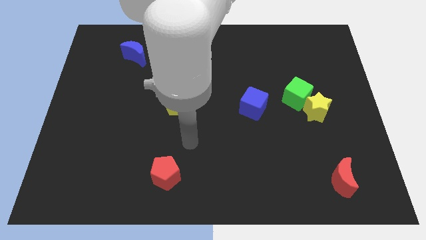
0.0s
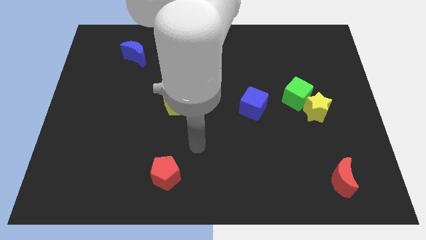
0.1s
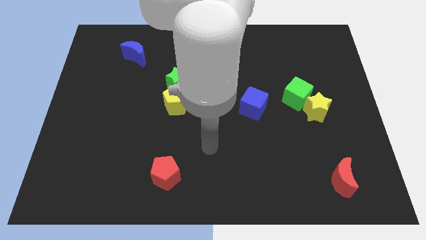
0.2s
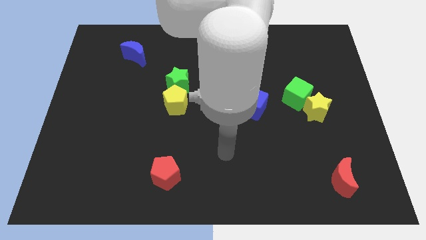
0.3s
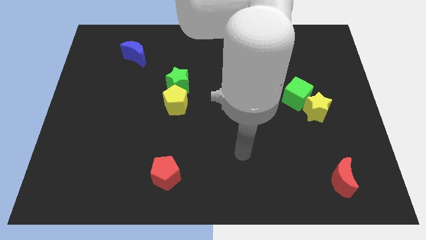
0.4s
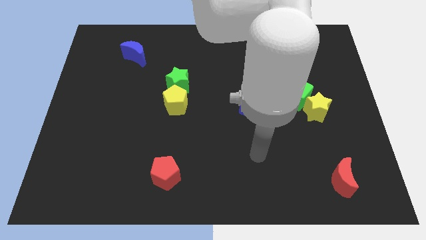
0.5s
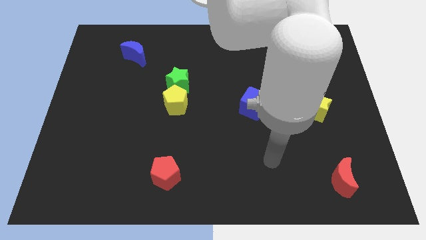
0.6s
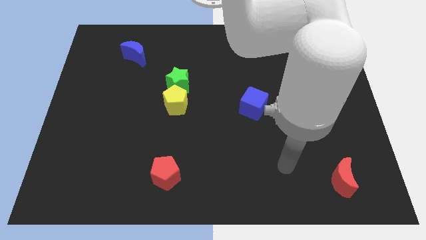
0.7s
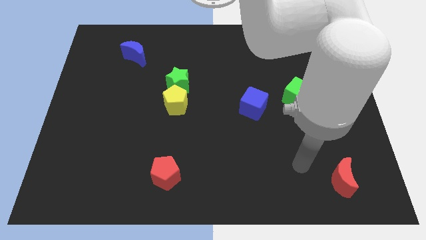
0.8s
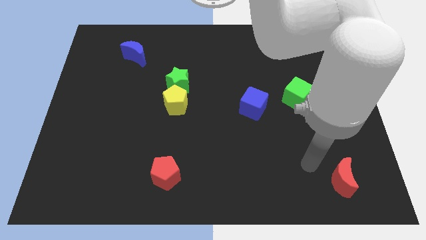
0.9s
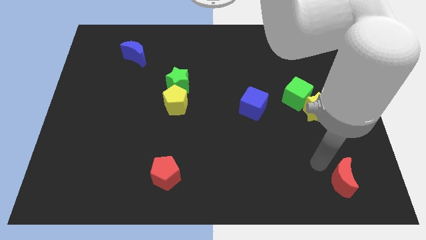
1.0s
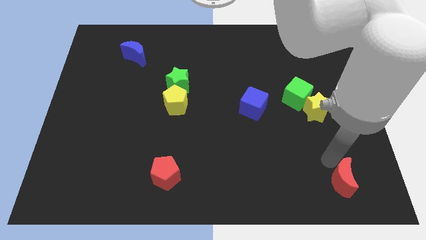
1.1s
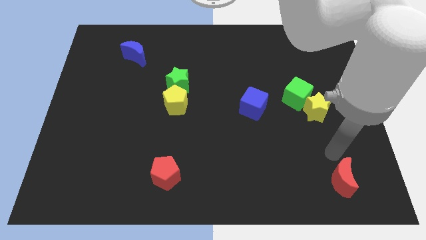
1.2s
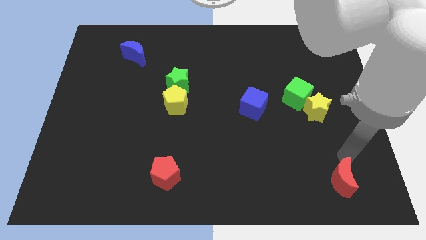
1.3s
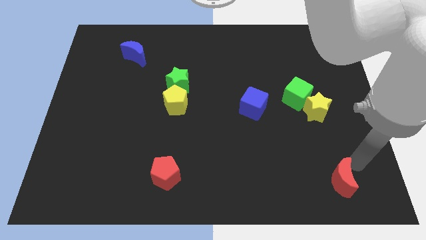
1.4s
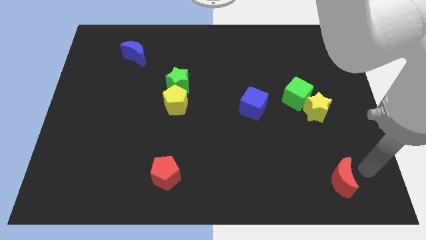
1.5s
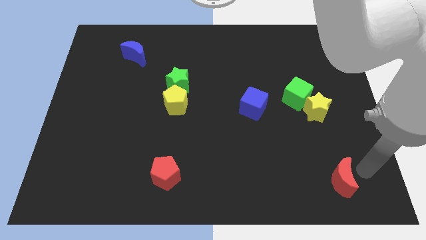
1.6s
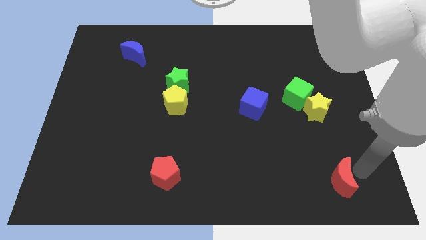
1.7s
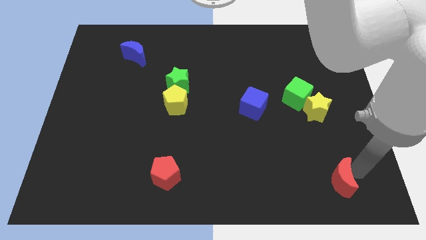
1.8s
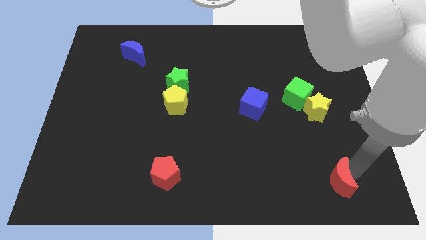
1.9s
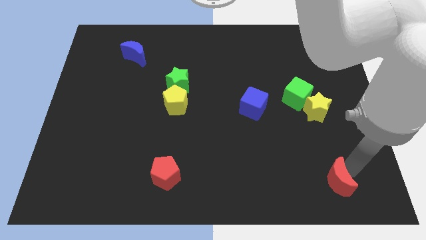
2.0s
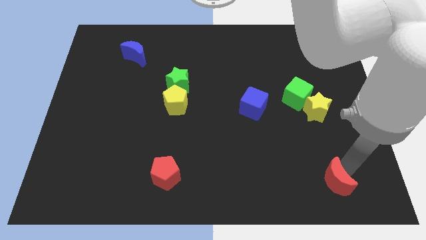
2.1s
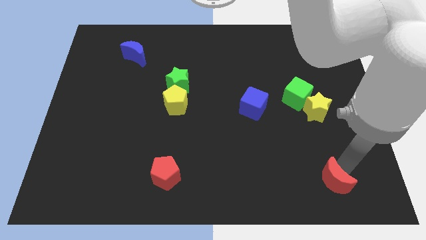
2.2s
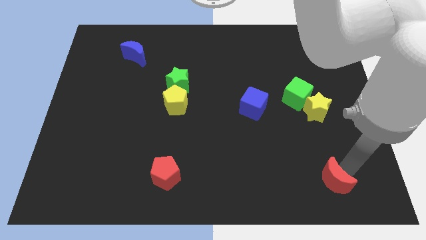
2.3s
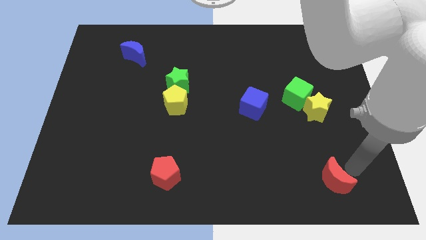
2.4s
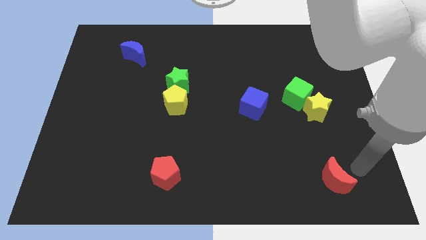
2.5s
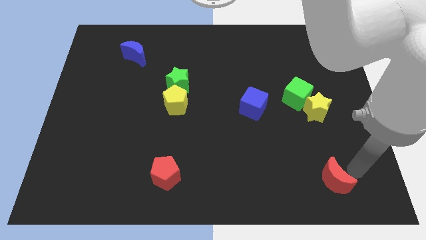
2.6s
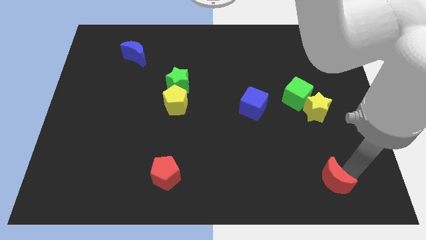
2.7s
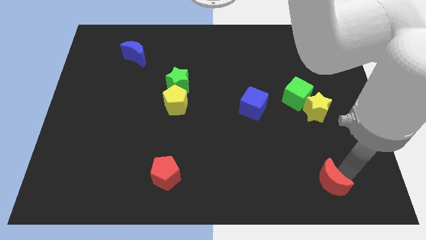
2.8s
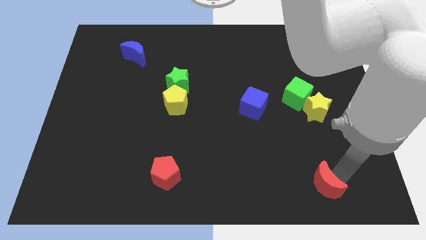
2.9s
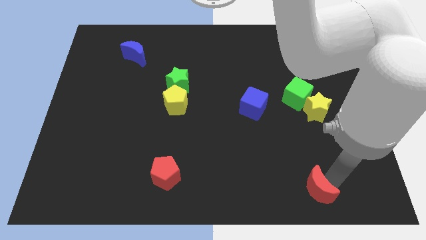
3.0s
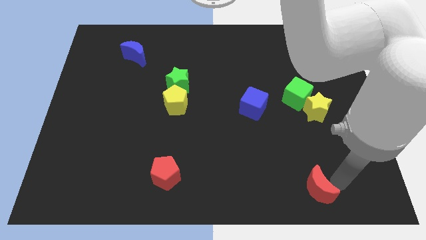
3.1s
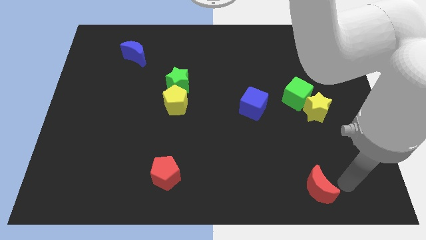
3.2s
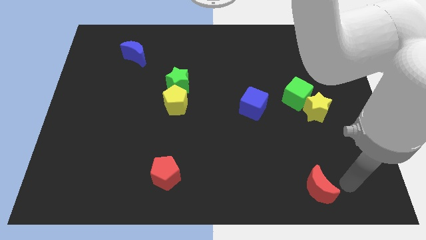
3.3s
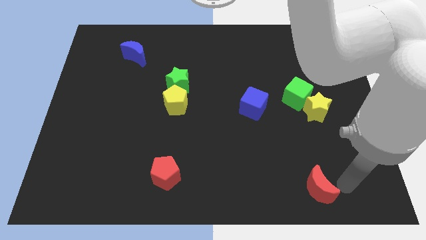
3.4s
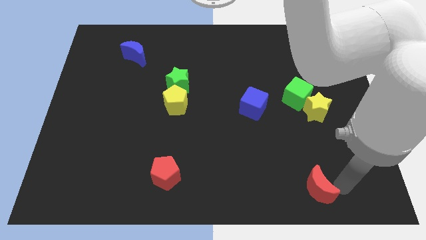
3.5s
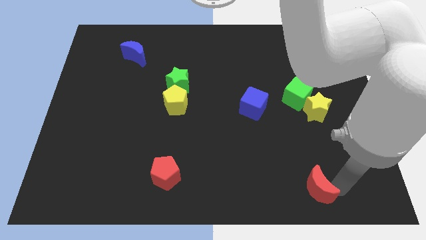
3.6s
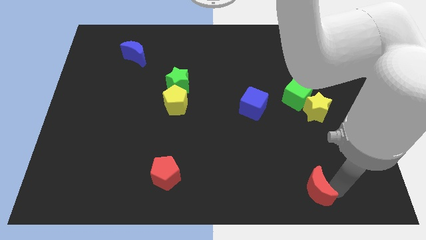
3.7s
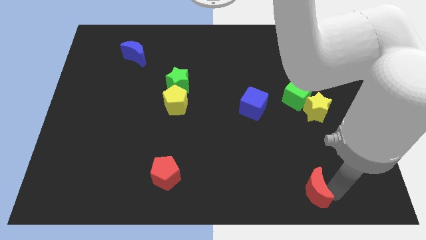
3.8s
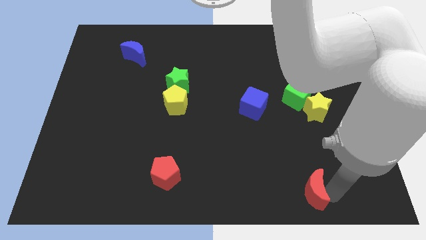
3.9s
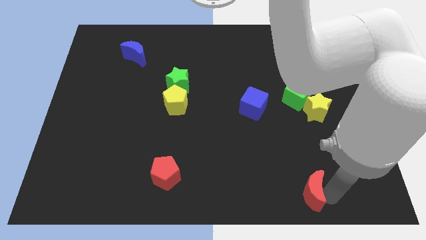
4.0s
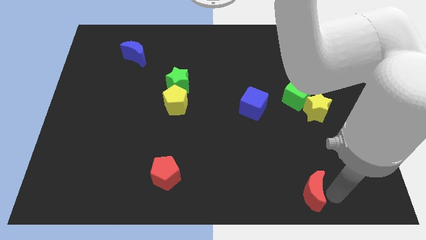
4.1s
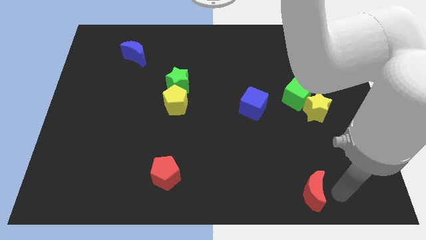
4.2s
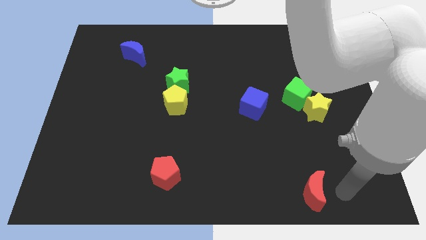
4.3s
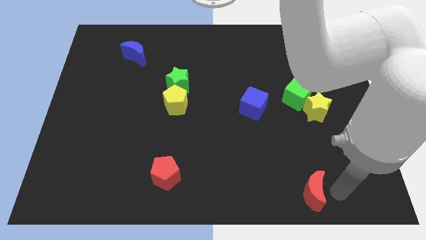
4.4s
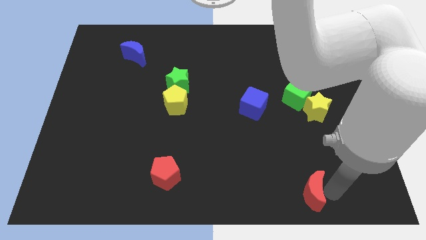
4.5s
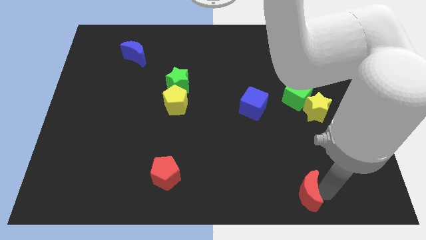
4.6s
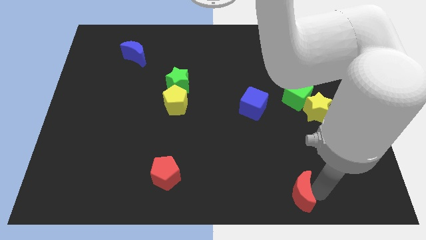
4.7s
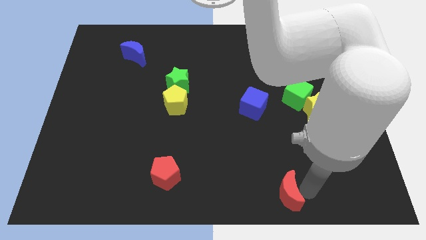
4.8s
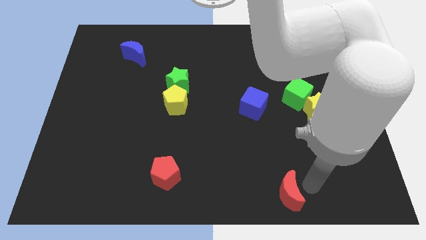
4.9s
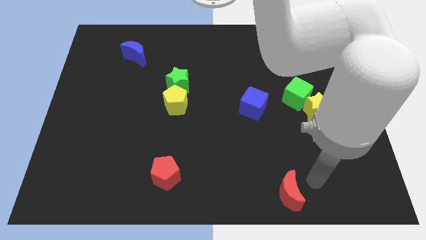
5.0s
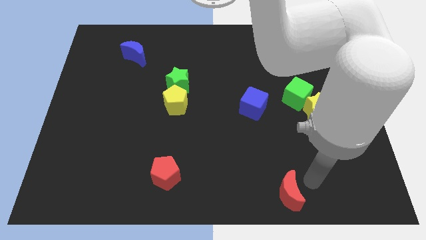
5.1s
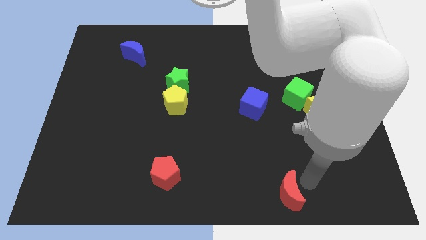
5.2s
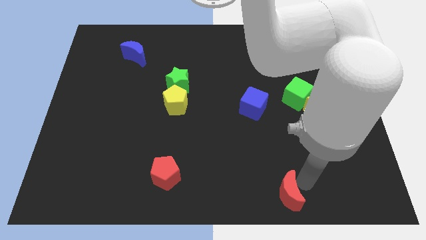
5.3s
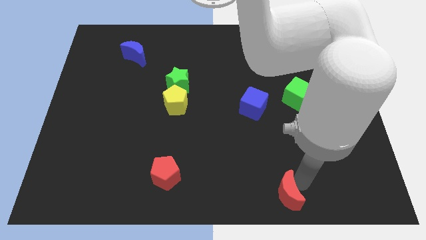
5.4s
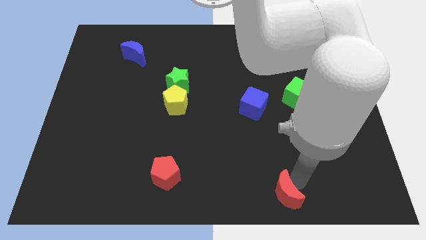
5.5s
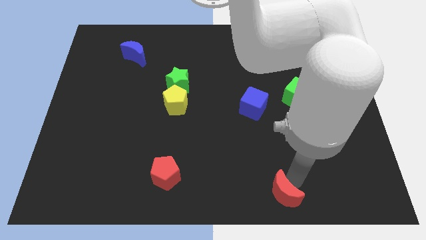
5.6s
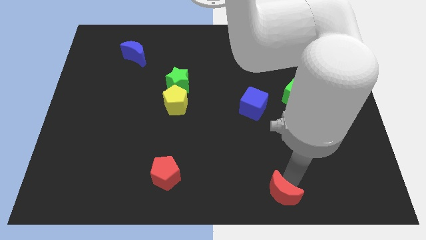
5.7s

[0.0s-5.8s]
push the red moon to the bottom side
